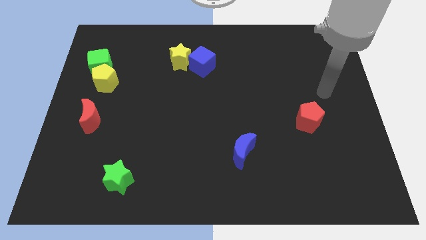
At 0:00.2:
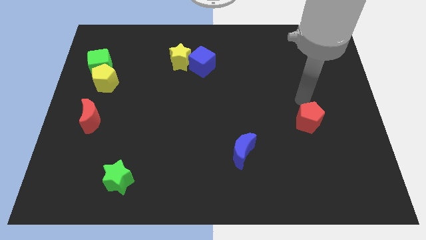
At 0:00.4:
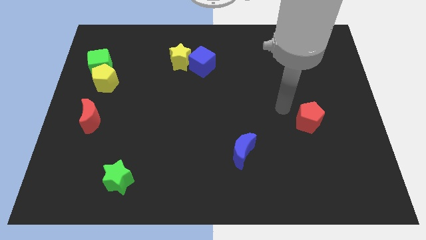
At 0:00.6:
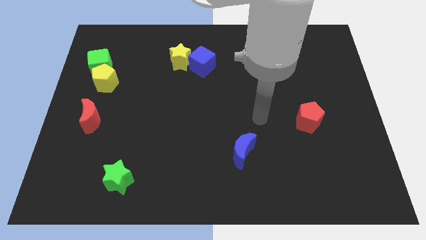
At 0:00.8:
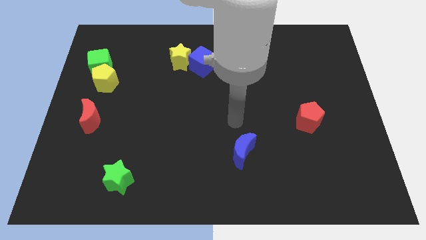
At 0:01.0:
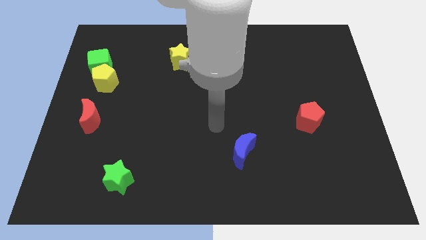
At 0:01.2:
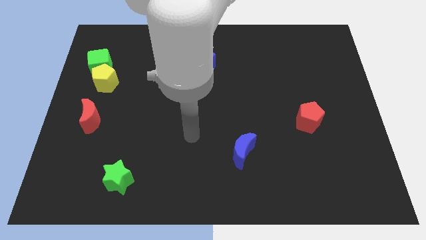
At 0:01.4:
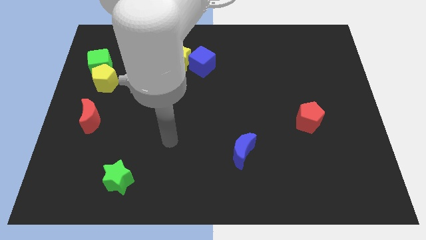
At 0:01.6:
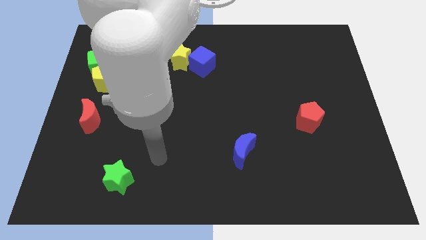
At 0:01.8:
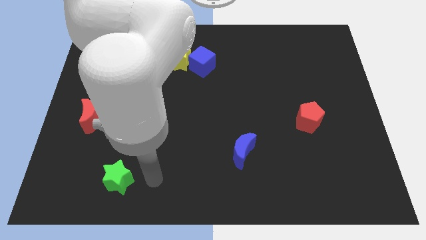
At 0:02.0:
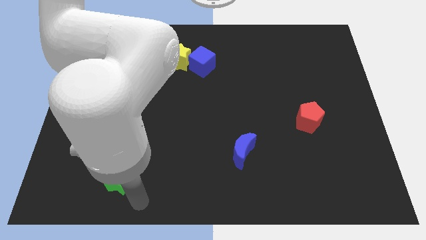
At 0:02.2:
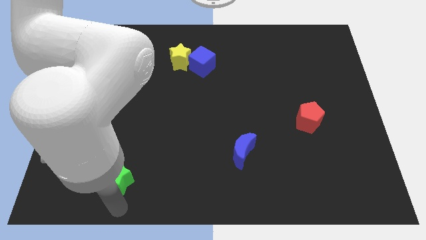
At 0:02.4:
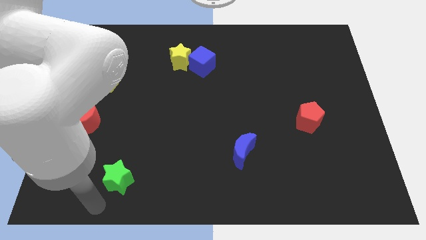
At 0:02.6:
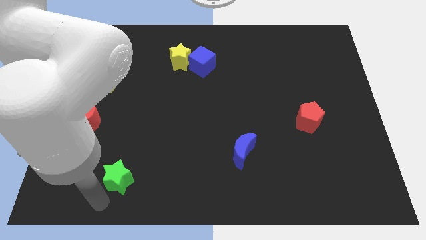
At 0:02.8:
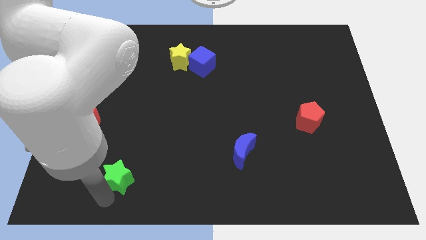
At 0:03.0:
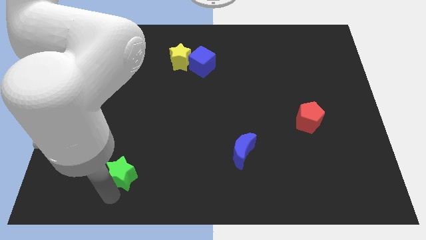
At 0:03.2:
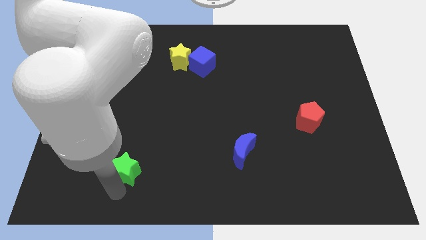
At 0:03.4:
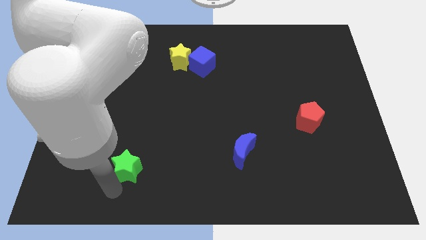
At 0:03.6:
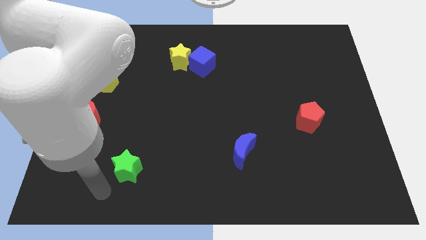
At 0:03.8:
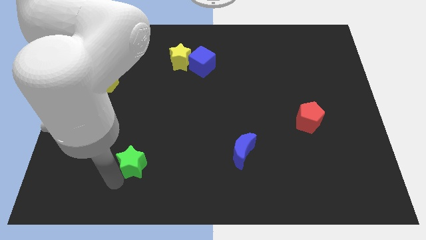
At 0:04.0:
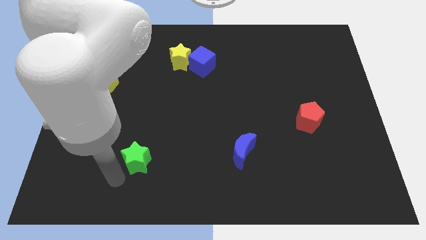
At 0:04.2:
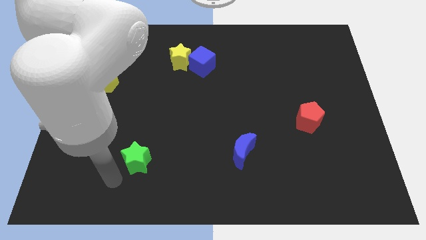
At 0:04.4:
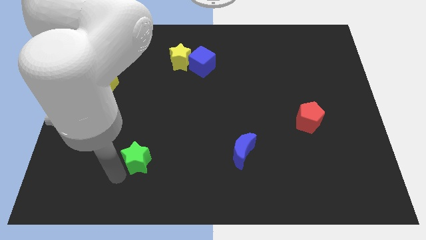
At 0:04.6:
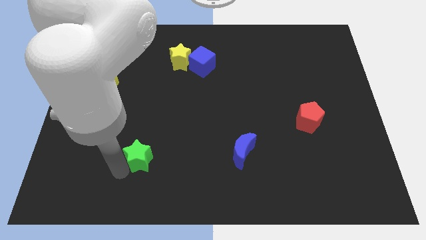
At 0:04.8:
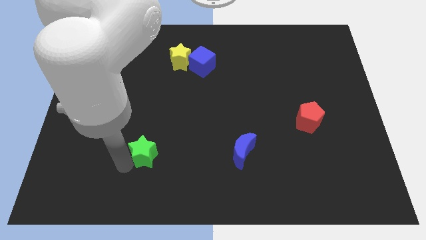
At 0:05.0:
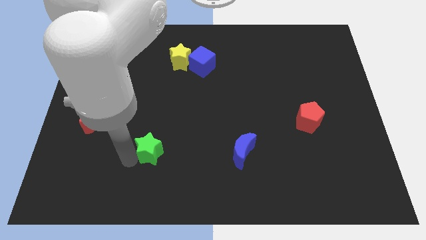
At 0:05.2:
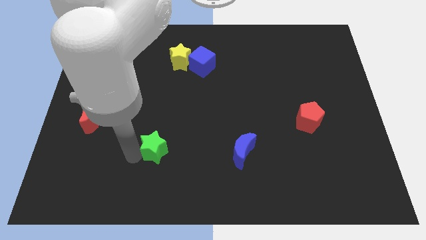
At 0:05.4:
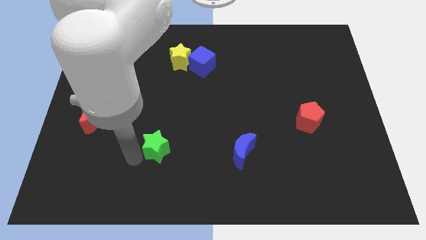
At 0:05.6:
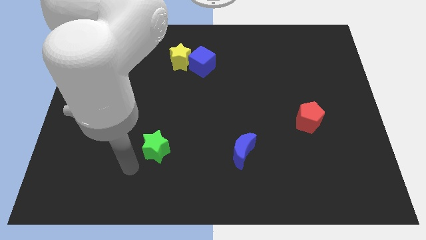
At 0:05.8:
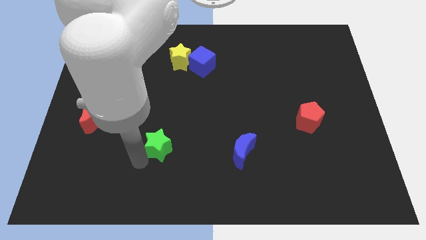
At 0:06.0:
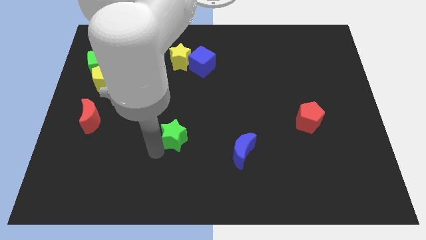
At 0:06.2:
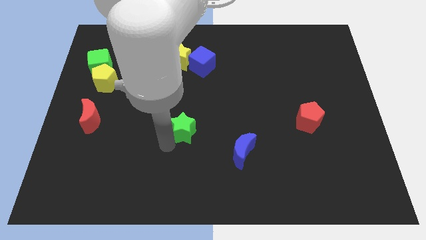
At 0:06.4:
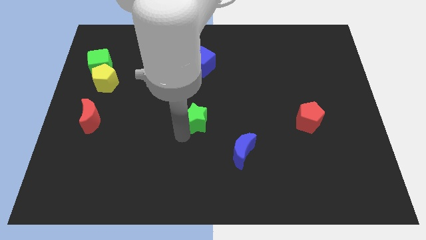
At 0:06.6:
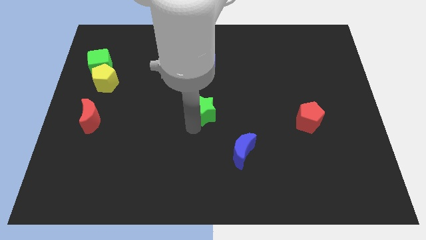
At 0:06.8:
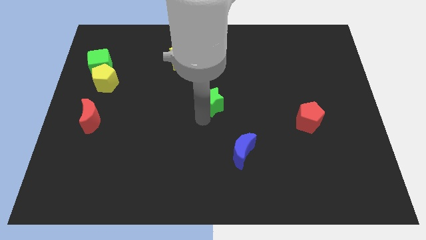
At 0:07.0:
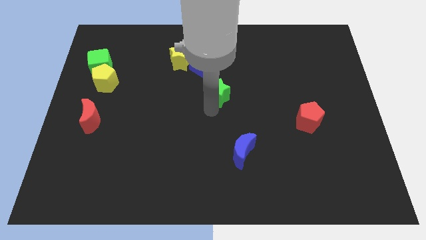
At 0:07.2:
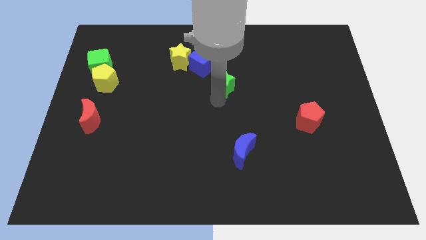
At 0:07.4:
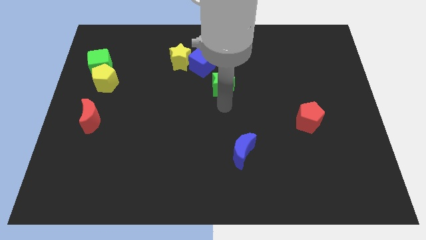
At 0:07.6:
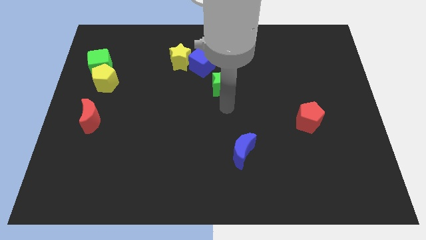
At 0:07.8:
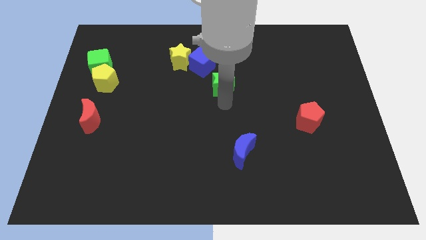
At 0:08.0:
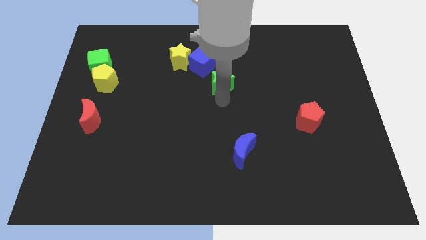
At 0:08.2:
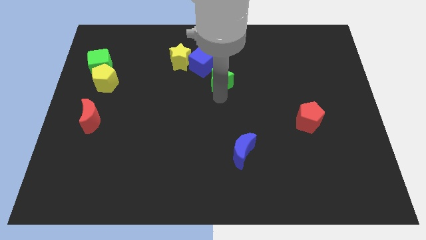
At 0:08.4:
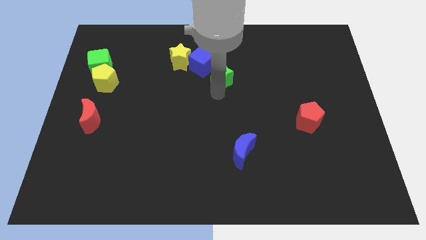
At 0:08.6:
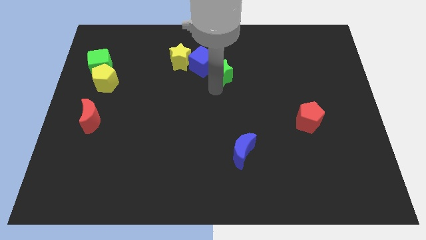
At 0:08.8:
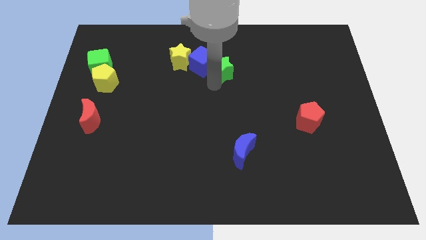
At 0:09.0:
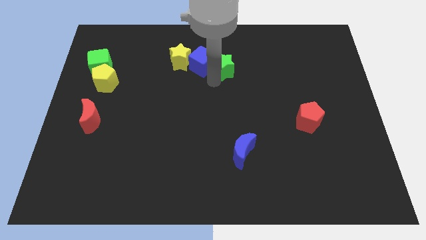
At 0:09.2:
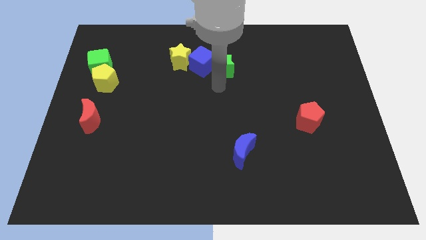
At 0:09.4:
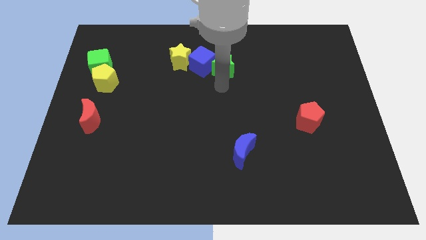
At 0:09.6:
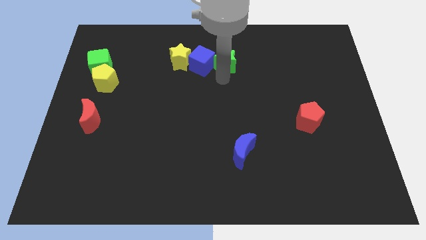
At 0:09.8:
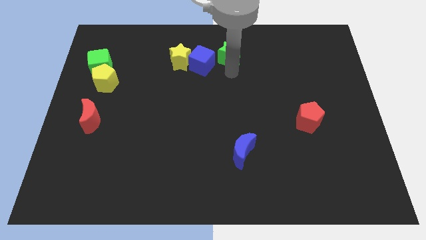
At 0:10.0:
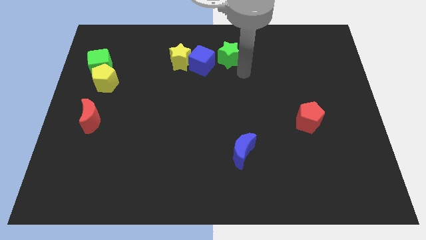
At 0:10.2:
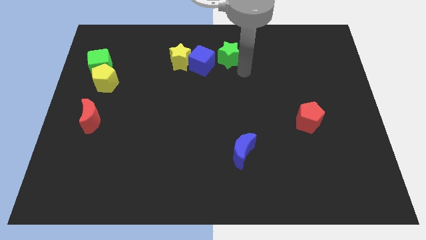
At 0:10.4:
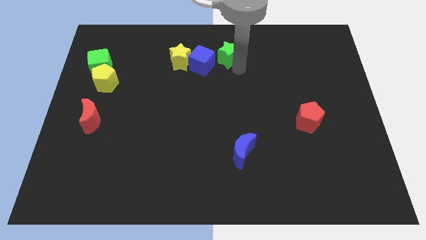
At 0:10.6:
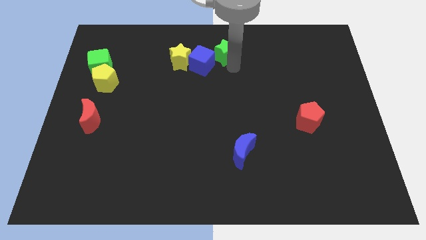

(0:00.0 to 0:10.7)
slide the green star to the top

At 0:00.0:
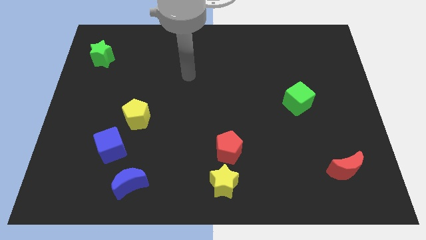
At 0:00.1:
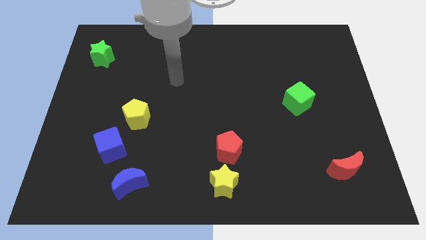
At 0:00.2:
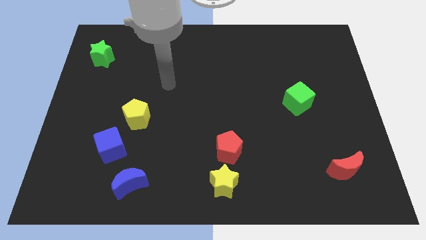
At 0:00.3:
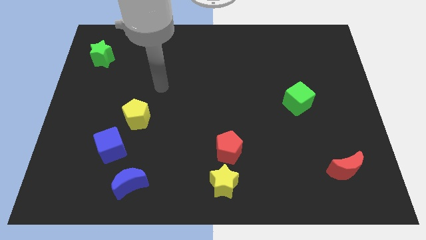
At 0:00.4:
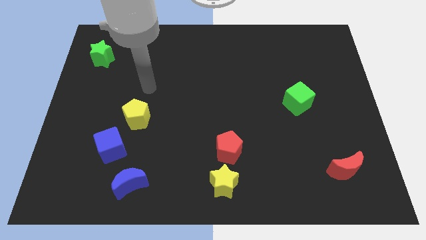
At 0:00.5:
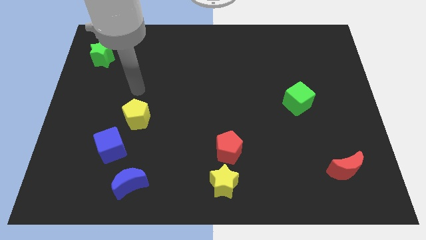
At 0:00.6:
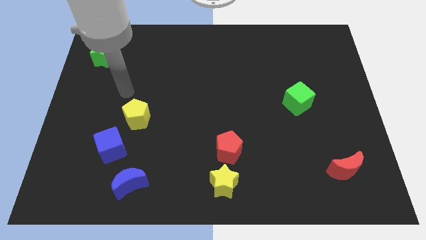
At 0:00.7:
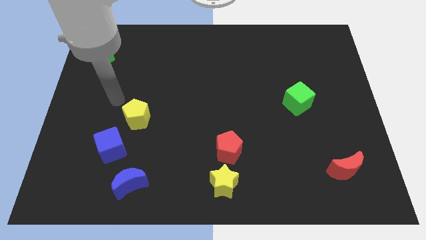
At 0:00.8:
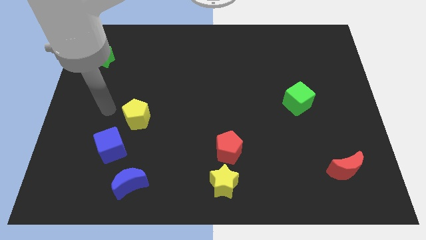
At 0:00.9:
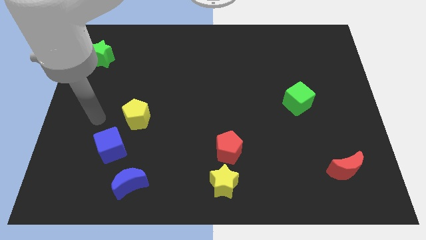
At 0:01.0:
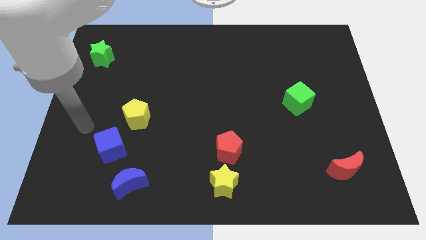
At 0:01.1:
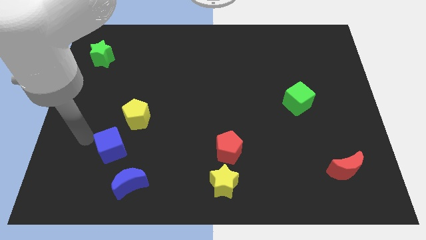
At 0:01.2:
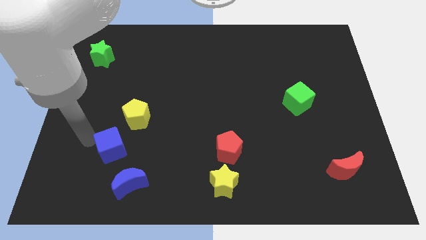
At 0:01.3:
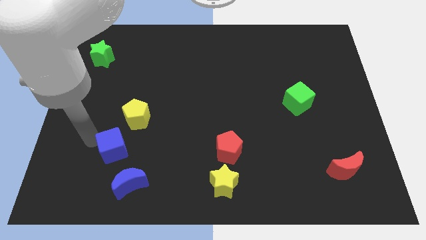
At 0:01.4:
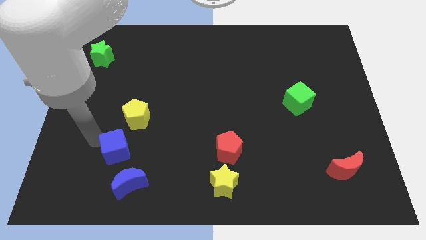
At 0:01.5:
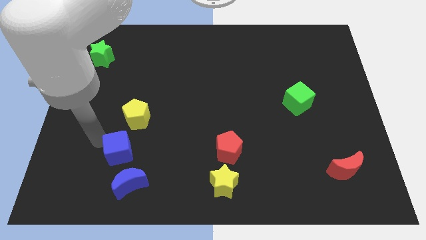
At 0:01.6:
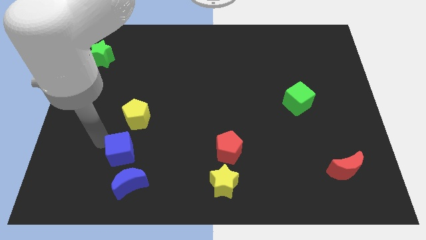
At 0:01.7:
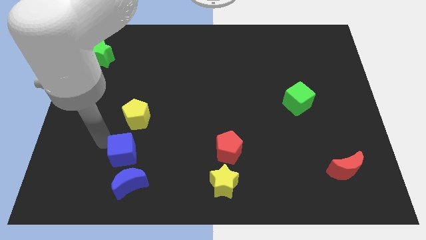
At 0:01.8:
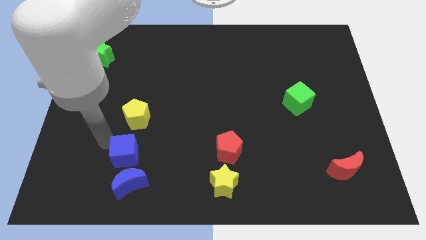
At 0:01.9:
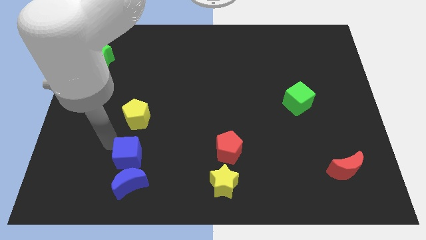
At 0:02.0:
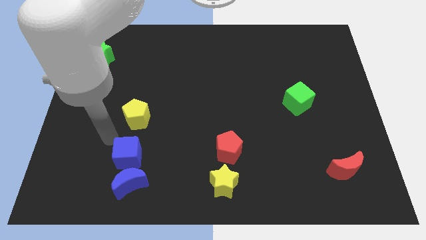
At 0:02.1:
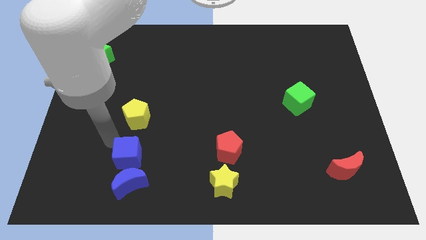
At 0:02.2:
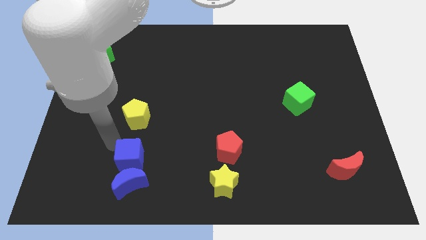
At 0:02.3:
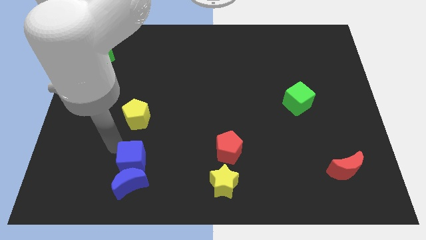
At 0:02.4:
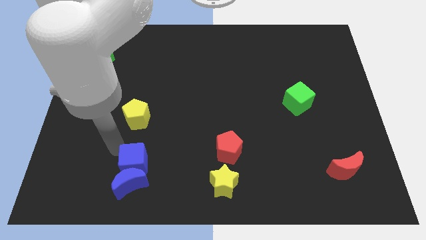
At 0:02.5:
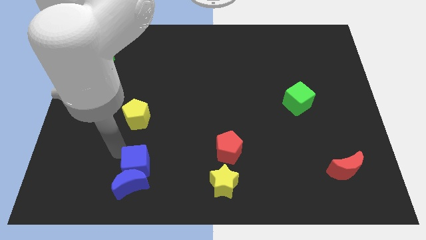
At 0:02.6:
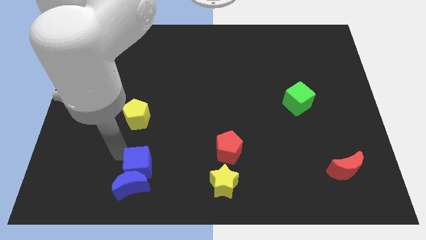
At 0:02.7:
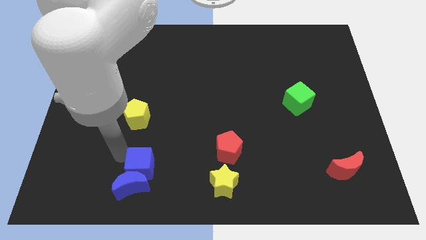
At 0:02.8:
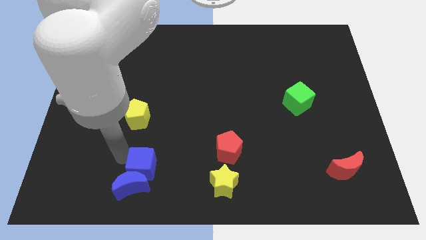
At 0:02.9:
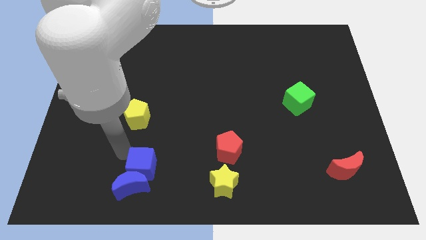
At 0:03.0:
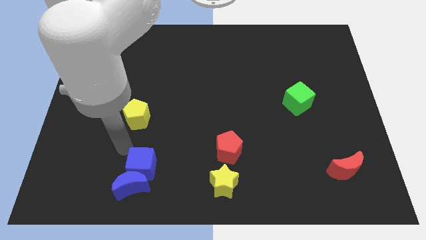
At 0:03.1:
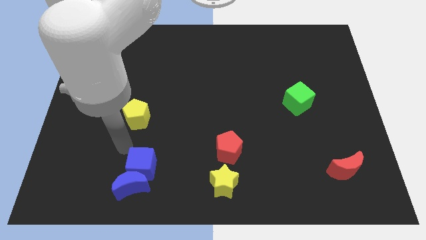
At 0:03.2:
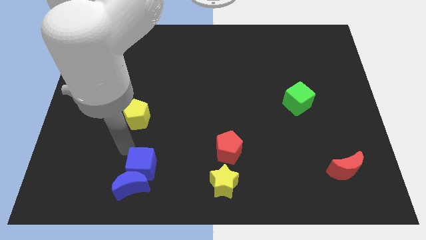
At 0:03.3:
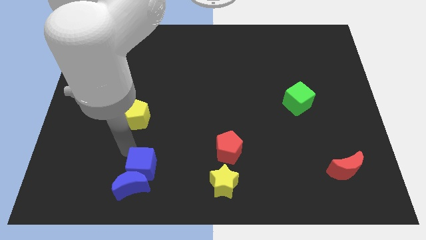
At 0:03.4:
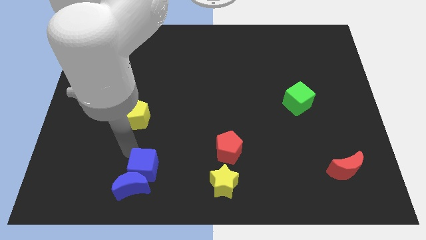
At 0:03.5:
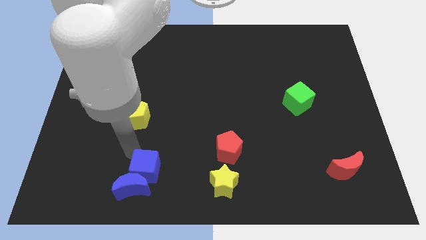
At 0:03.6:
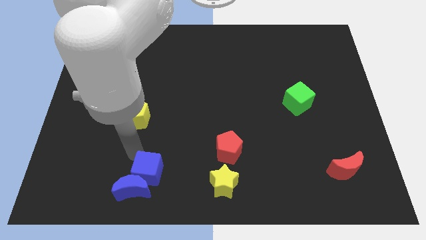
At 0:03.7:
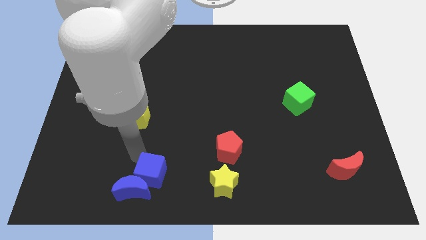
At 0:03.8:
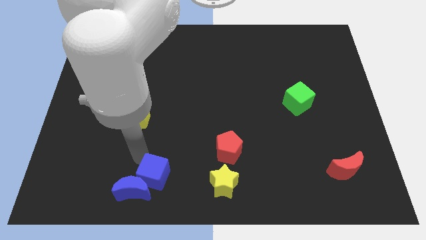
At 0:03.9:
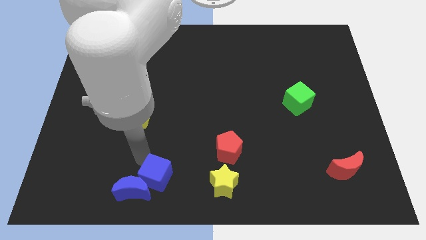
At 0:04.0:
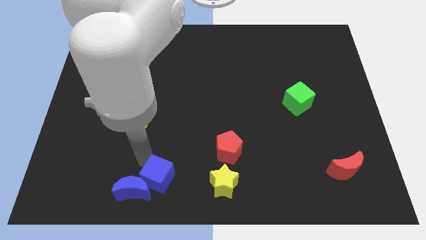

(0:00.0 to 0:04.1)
push the blue cube to the bottom
